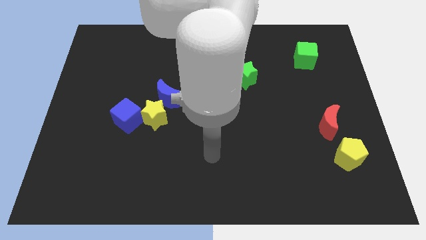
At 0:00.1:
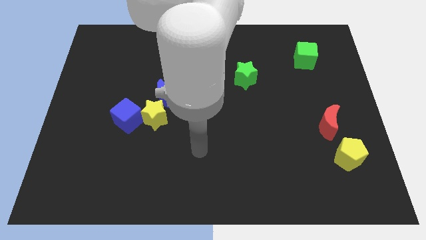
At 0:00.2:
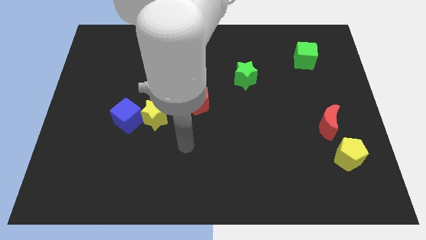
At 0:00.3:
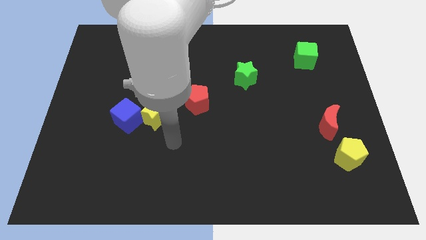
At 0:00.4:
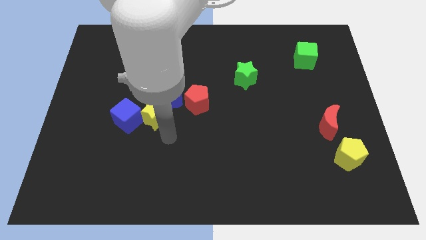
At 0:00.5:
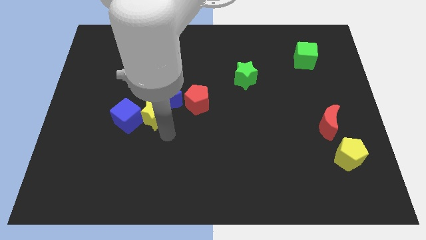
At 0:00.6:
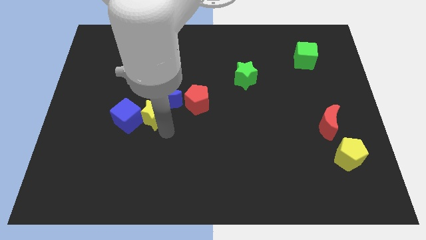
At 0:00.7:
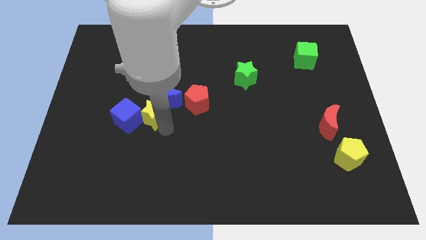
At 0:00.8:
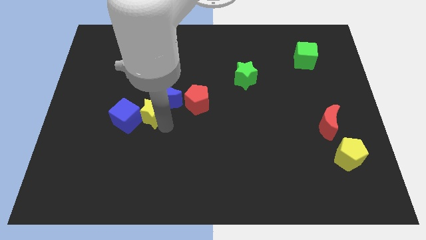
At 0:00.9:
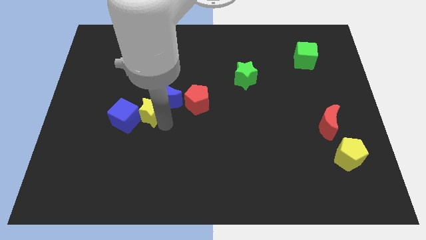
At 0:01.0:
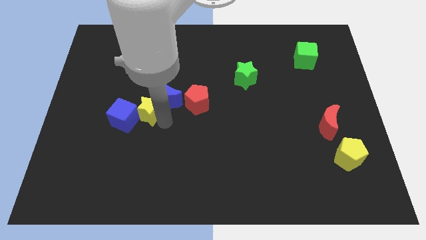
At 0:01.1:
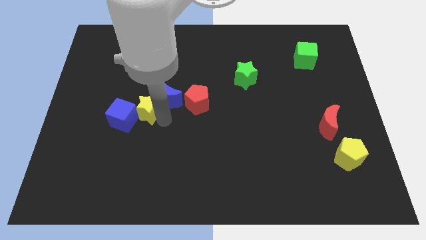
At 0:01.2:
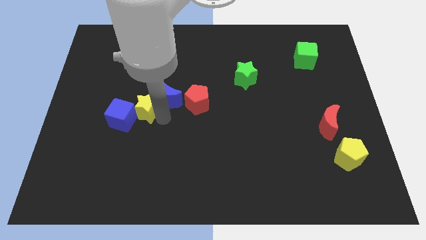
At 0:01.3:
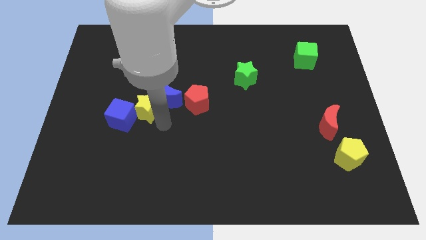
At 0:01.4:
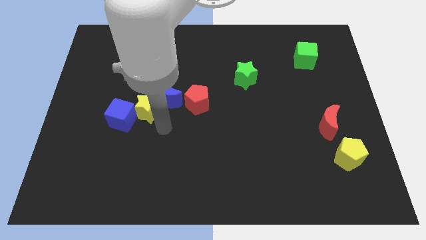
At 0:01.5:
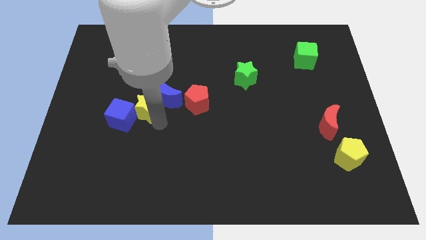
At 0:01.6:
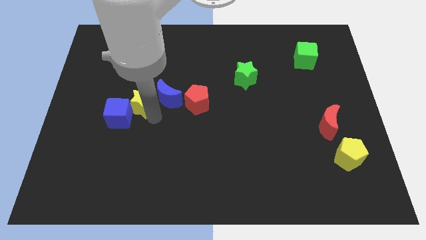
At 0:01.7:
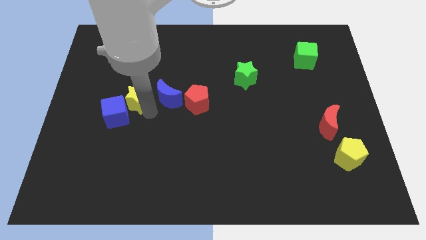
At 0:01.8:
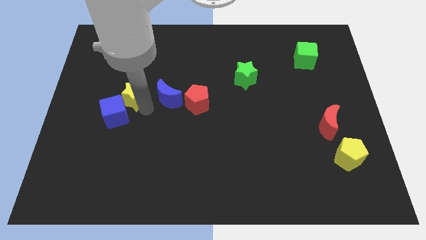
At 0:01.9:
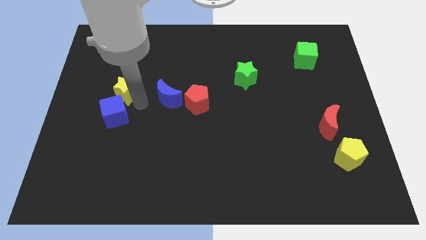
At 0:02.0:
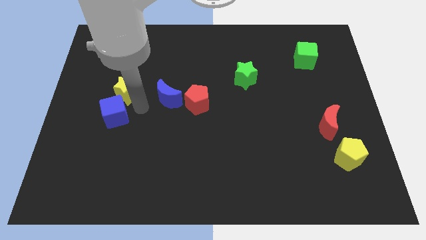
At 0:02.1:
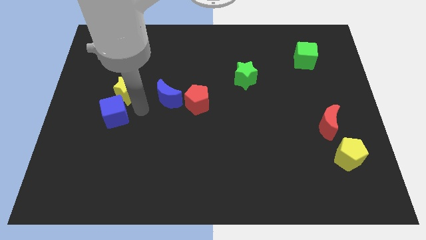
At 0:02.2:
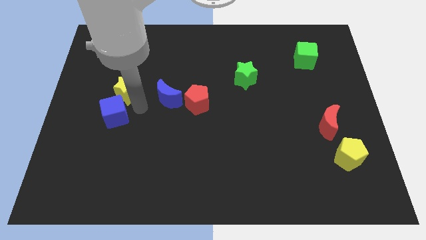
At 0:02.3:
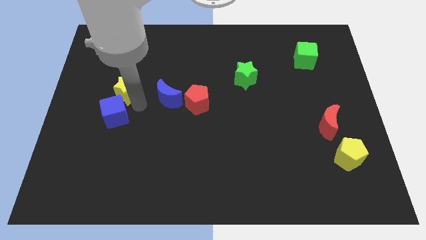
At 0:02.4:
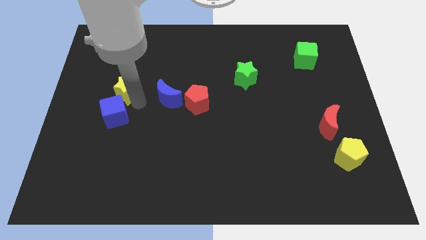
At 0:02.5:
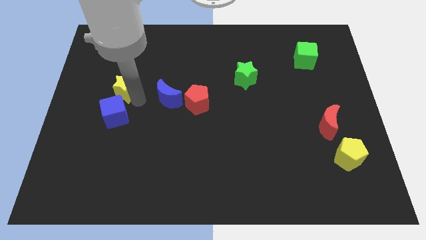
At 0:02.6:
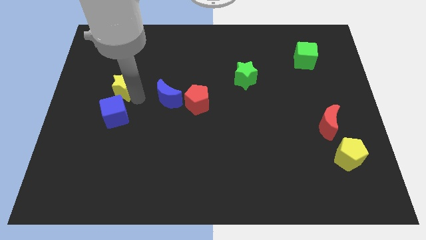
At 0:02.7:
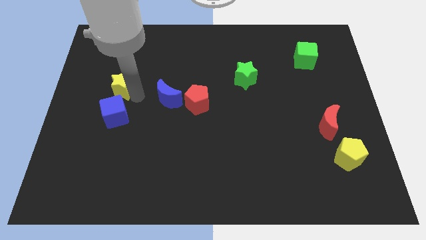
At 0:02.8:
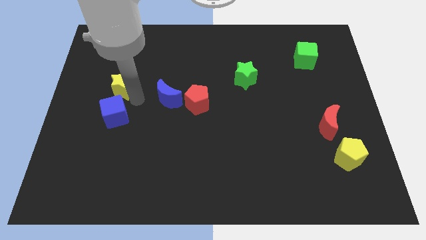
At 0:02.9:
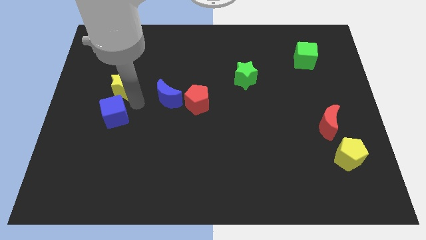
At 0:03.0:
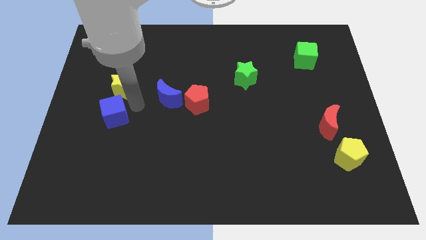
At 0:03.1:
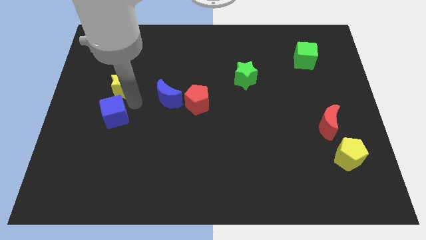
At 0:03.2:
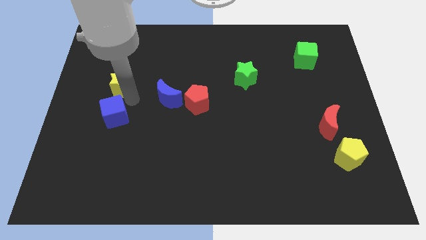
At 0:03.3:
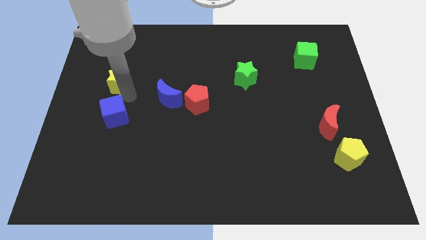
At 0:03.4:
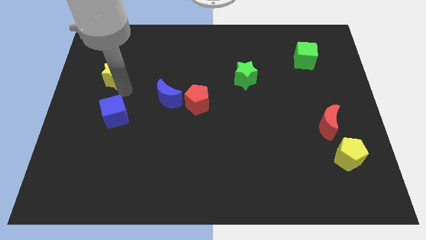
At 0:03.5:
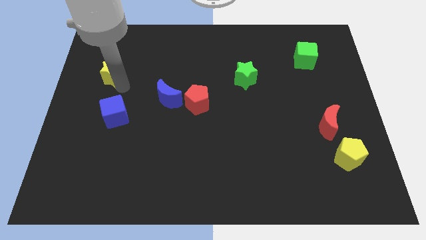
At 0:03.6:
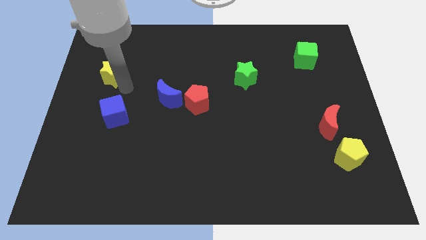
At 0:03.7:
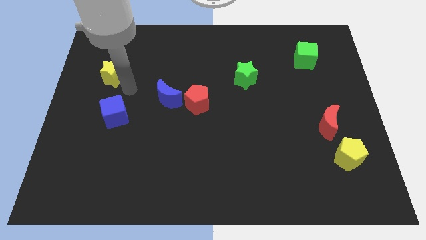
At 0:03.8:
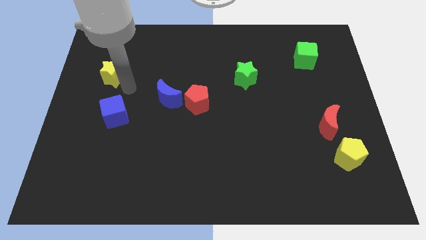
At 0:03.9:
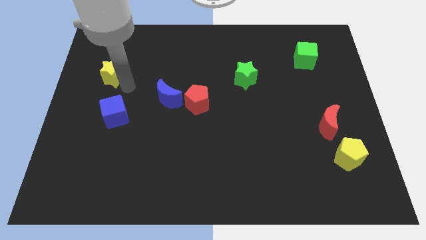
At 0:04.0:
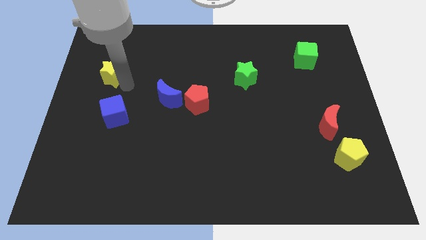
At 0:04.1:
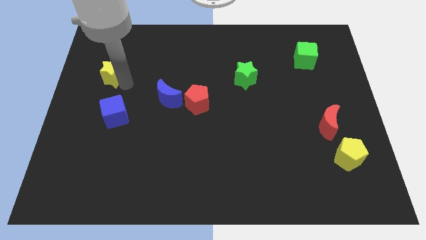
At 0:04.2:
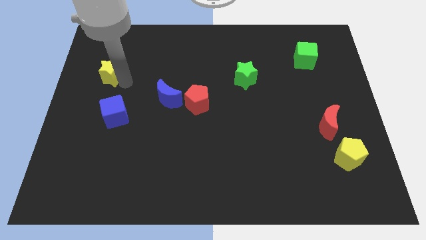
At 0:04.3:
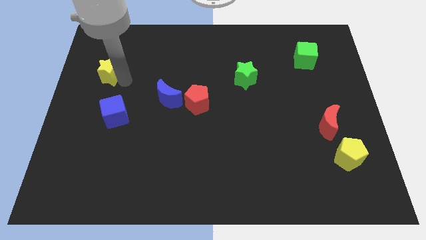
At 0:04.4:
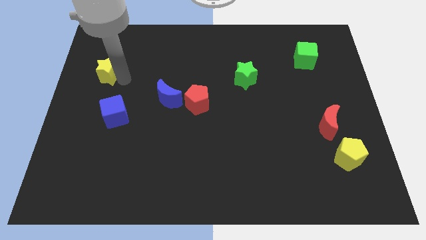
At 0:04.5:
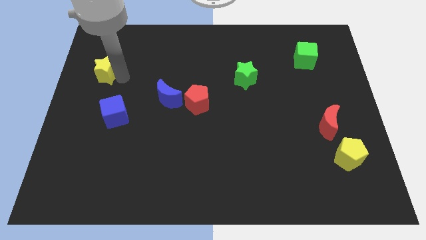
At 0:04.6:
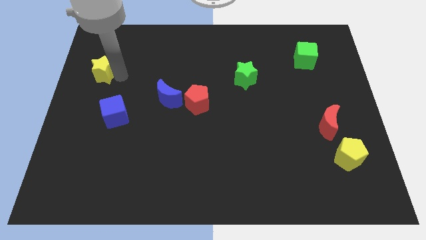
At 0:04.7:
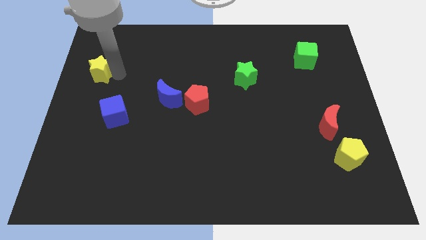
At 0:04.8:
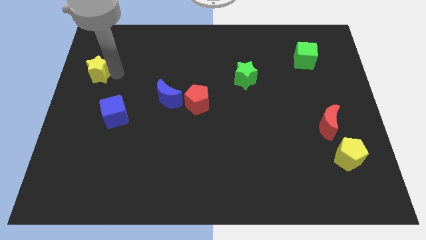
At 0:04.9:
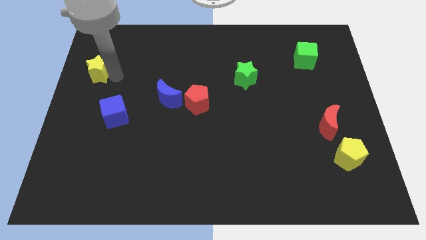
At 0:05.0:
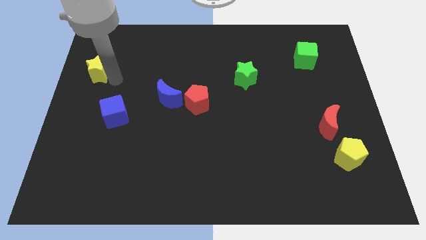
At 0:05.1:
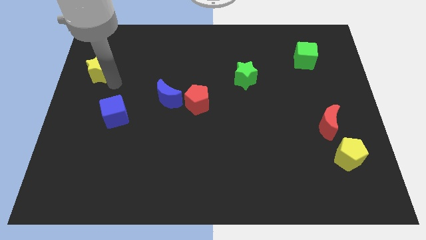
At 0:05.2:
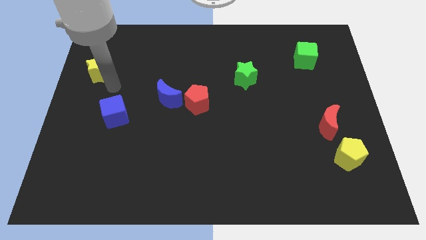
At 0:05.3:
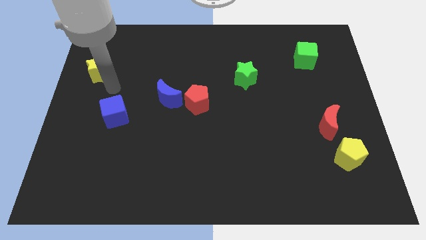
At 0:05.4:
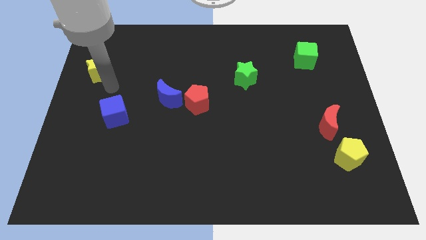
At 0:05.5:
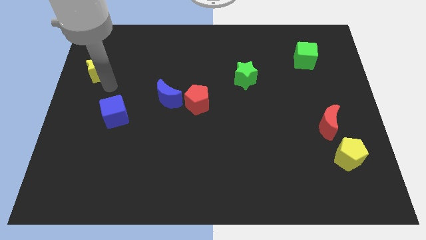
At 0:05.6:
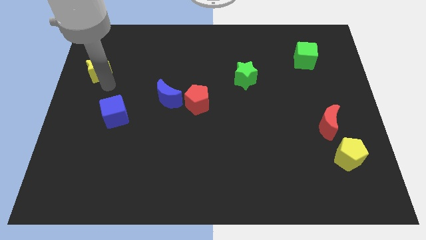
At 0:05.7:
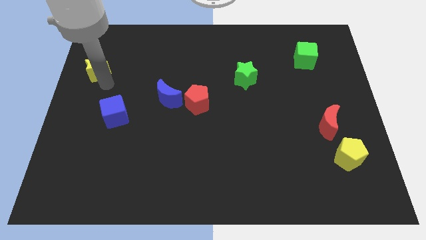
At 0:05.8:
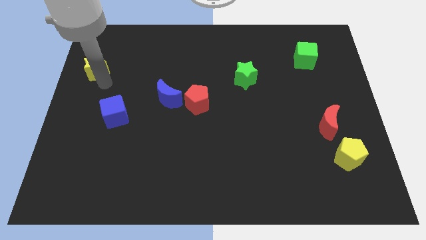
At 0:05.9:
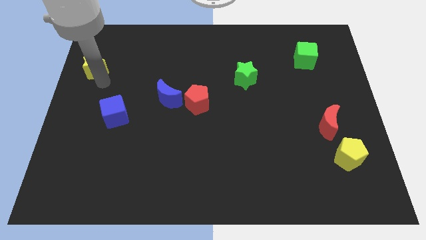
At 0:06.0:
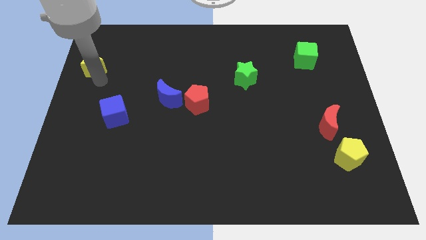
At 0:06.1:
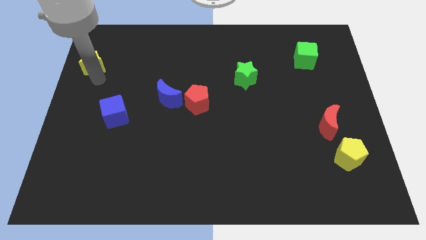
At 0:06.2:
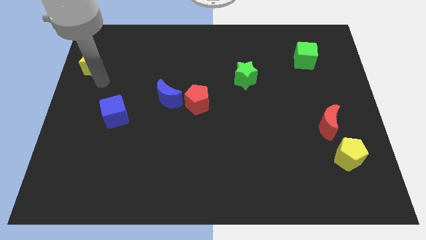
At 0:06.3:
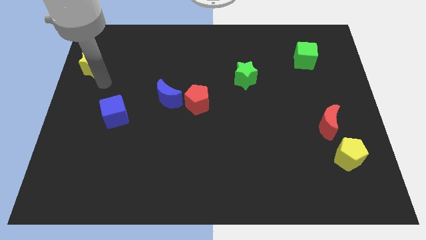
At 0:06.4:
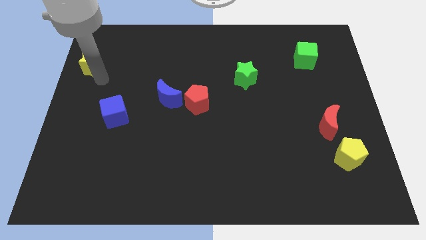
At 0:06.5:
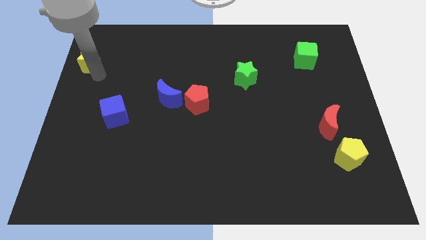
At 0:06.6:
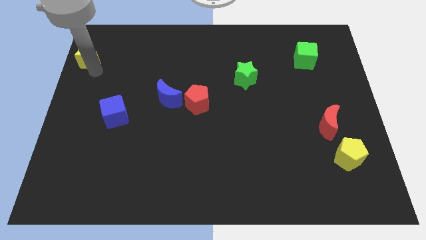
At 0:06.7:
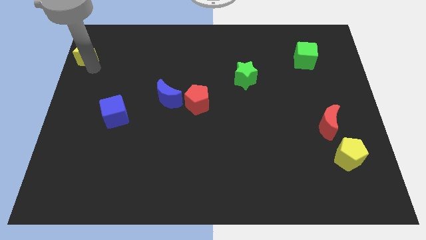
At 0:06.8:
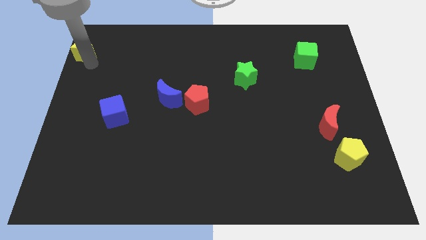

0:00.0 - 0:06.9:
move the yellow star to the top left corner
